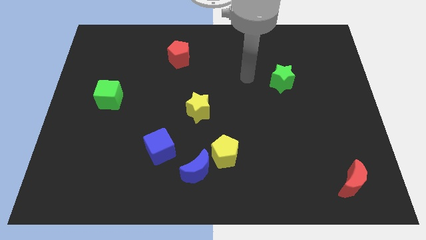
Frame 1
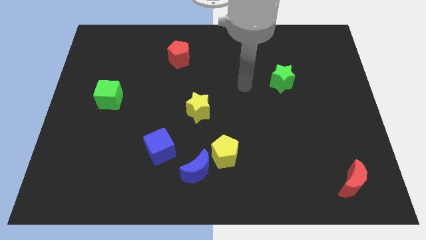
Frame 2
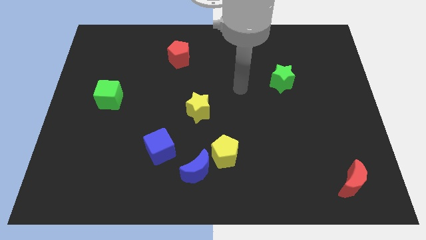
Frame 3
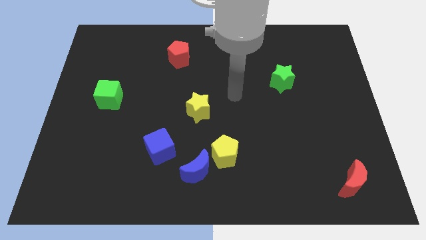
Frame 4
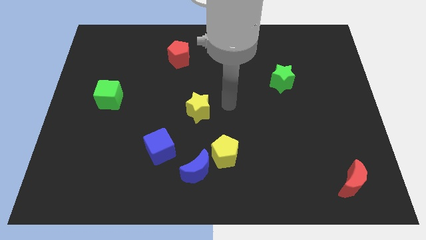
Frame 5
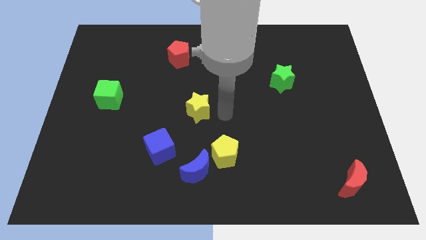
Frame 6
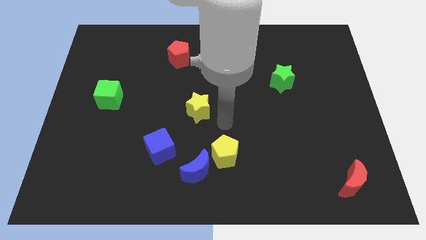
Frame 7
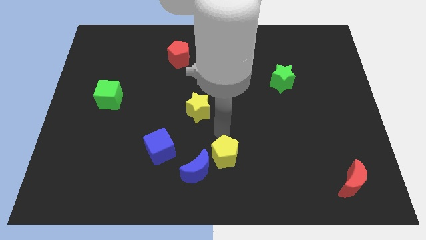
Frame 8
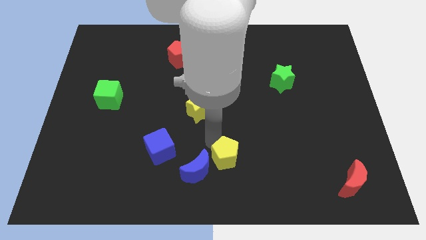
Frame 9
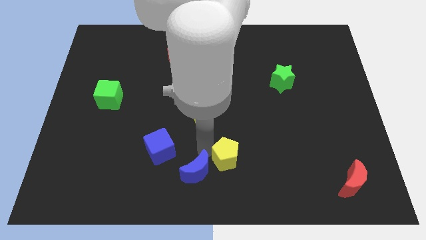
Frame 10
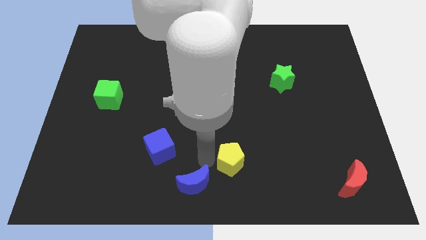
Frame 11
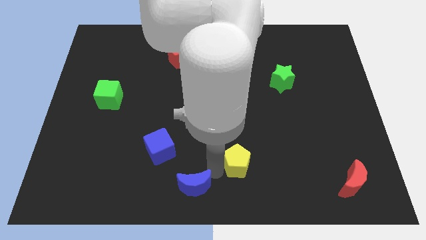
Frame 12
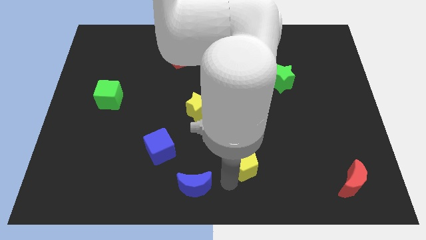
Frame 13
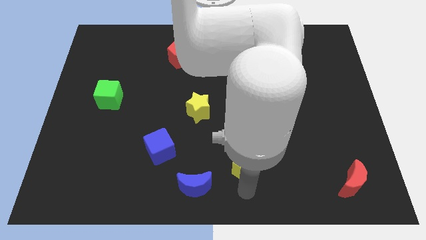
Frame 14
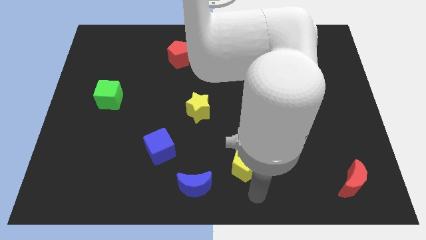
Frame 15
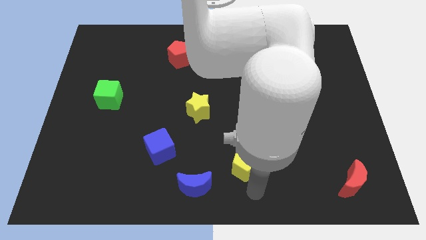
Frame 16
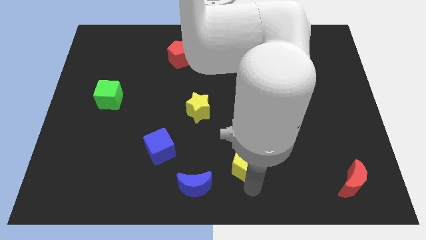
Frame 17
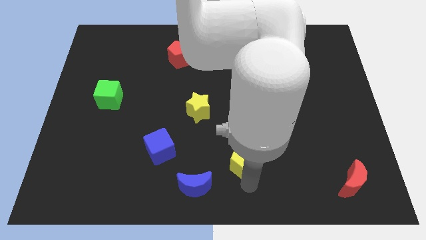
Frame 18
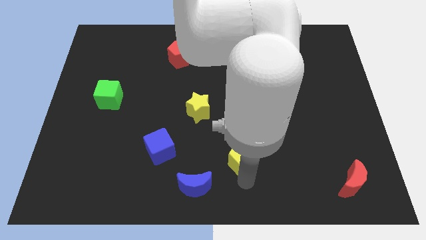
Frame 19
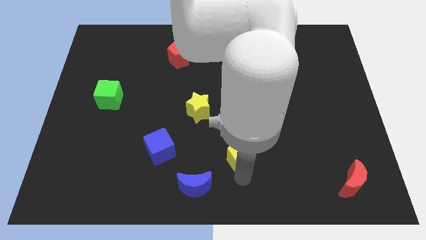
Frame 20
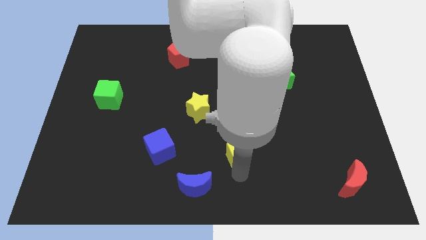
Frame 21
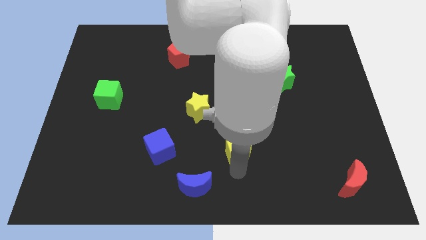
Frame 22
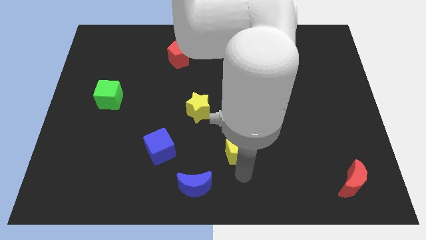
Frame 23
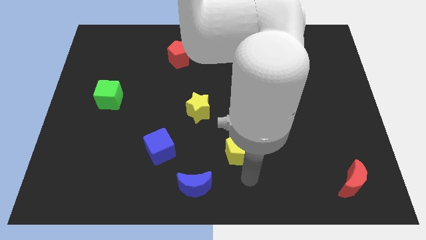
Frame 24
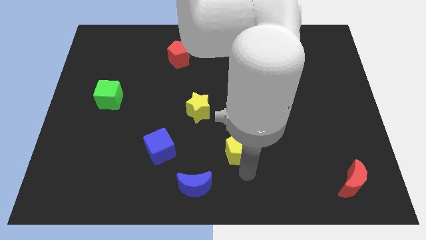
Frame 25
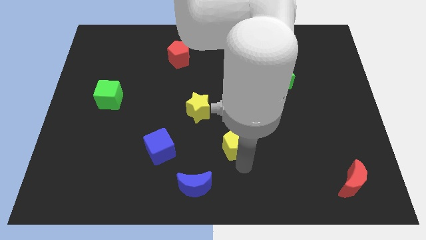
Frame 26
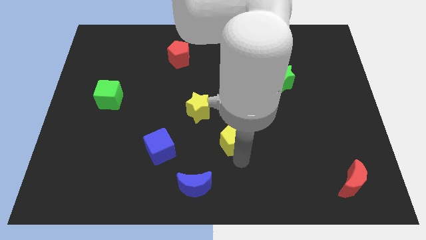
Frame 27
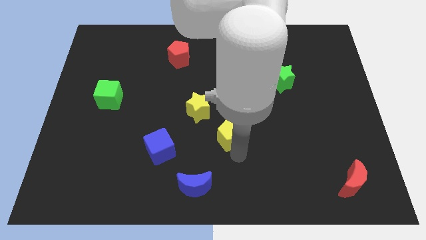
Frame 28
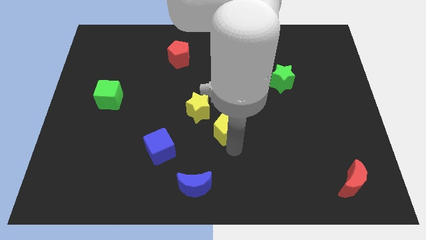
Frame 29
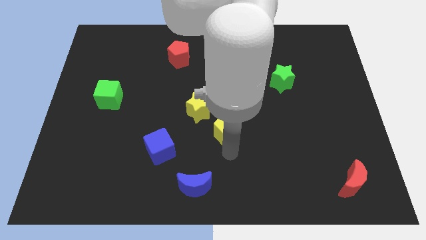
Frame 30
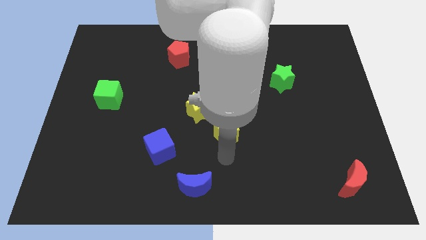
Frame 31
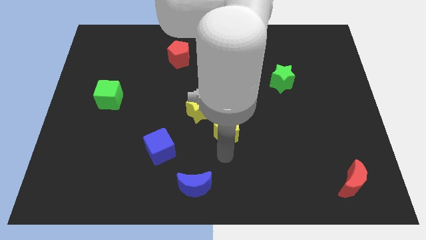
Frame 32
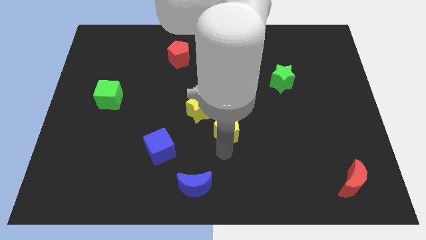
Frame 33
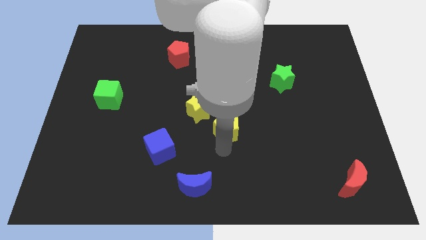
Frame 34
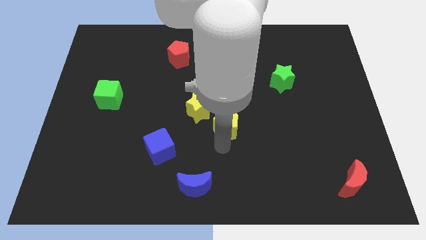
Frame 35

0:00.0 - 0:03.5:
push the yellow pentagon slightly up

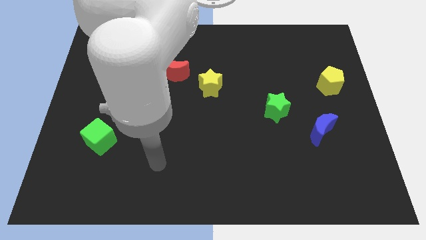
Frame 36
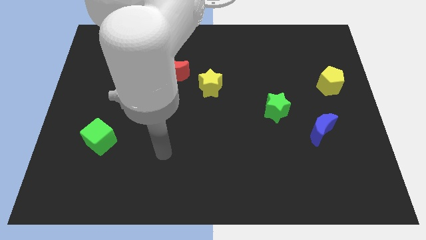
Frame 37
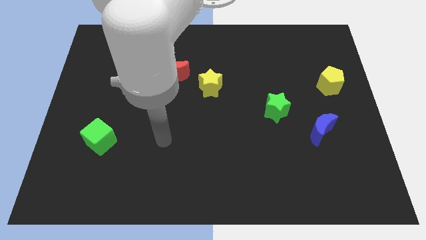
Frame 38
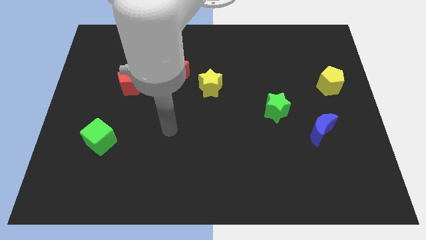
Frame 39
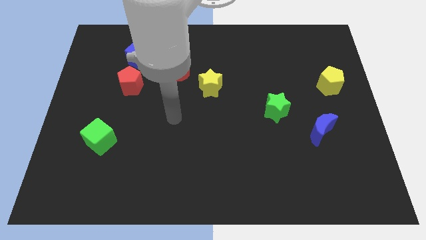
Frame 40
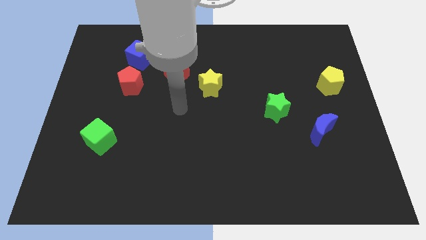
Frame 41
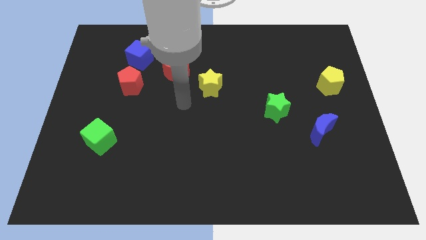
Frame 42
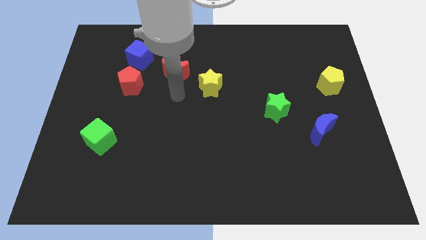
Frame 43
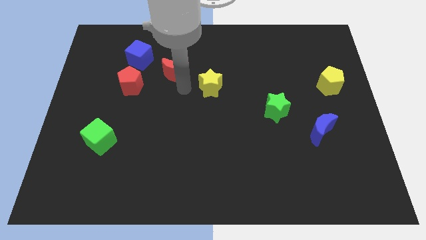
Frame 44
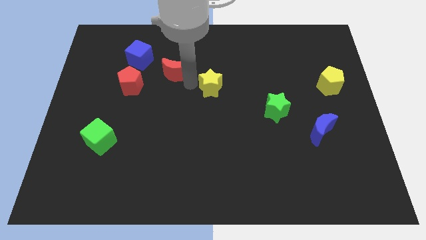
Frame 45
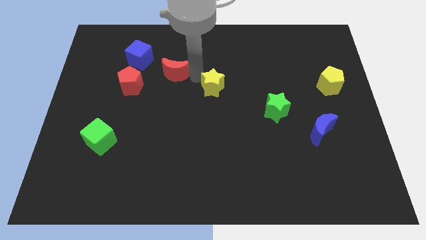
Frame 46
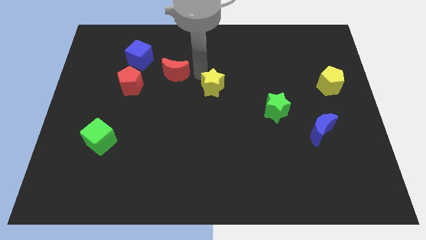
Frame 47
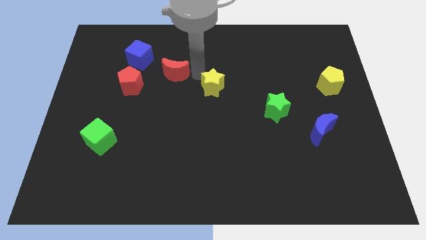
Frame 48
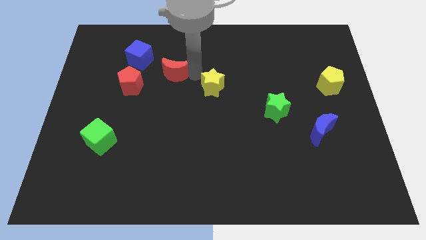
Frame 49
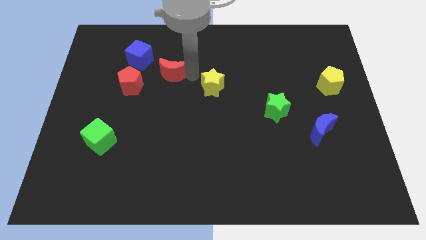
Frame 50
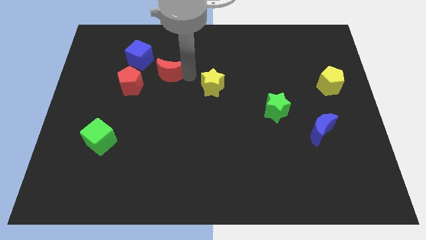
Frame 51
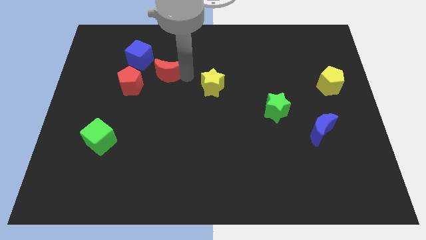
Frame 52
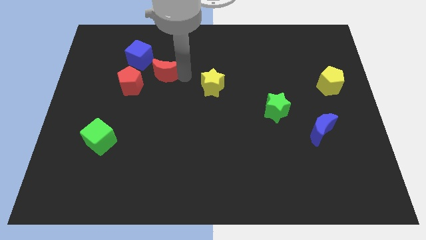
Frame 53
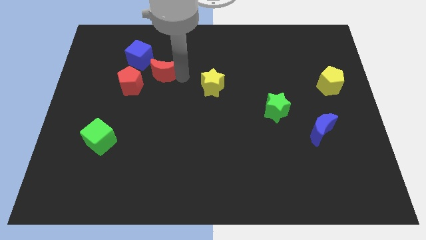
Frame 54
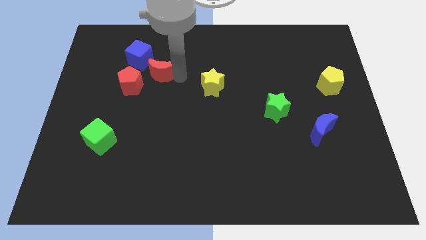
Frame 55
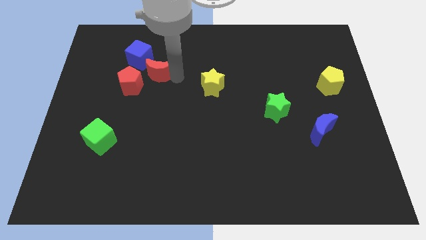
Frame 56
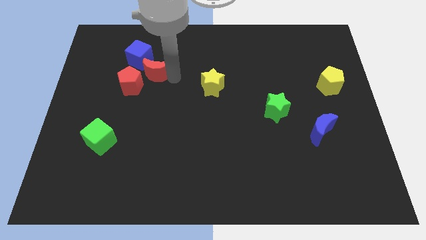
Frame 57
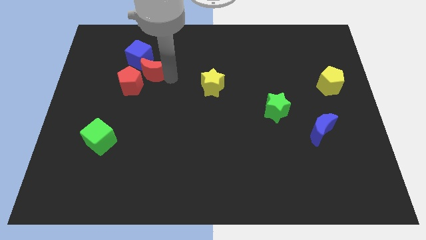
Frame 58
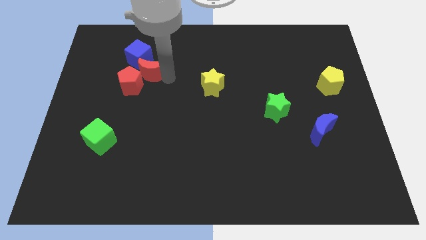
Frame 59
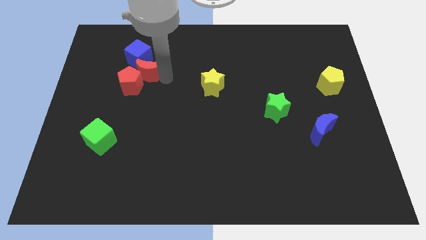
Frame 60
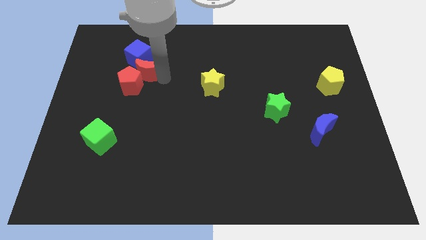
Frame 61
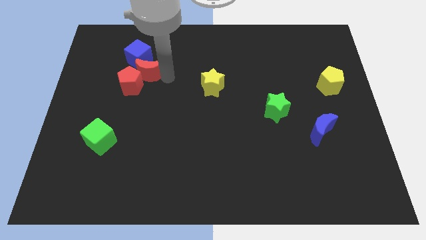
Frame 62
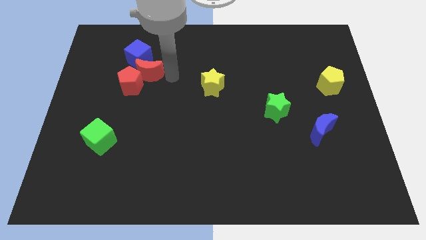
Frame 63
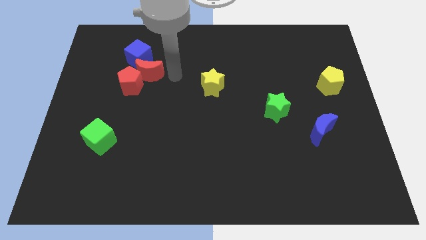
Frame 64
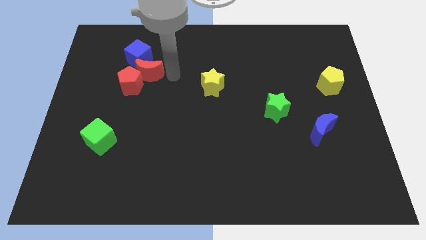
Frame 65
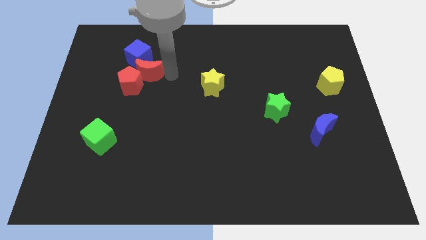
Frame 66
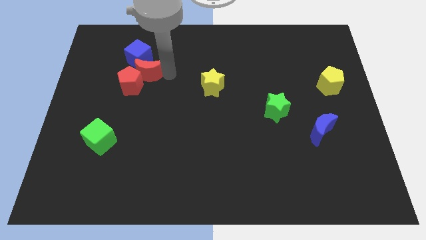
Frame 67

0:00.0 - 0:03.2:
slide the red moon somewhat to the left

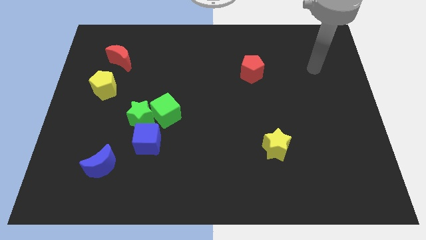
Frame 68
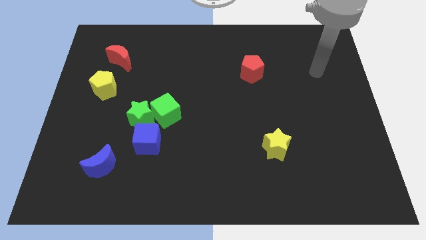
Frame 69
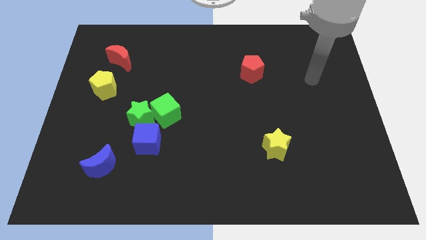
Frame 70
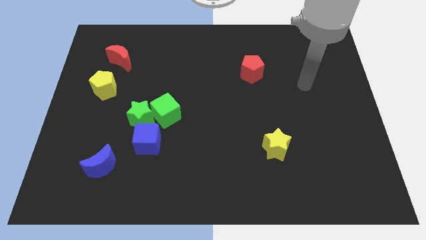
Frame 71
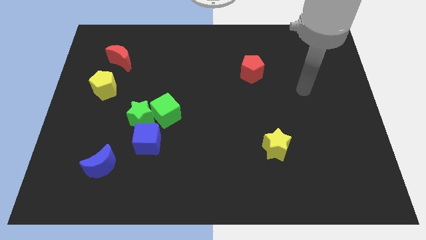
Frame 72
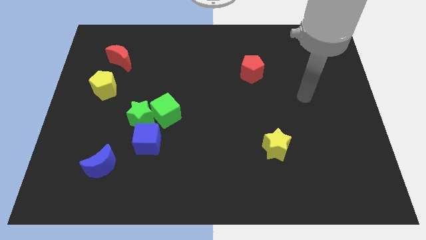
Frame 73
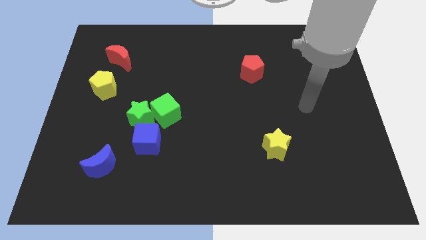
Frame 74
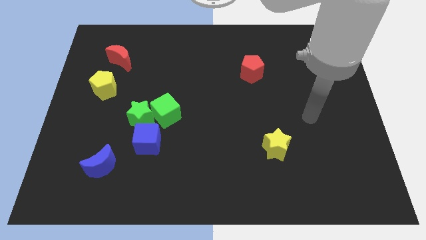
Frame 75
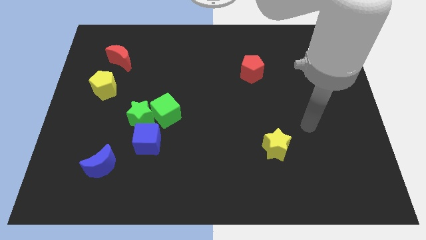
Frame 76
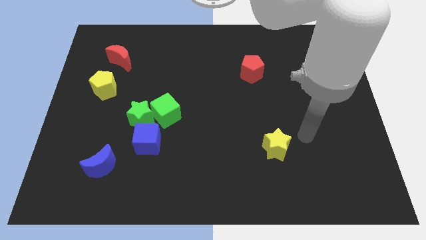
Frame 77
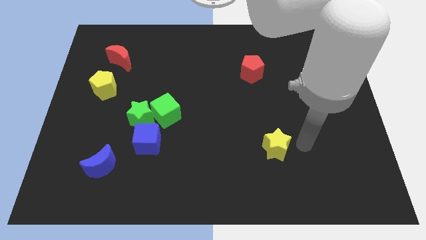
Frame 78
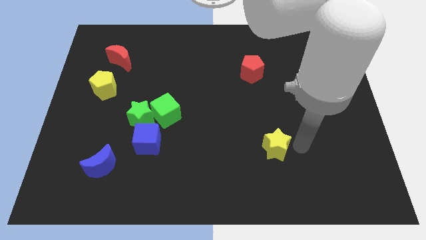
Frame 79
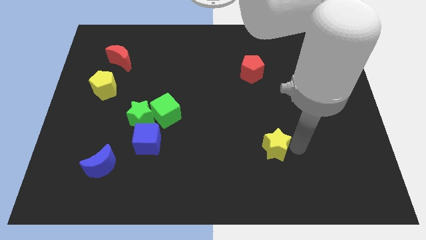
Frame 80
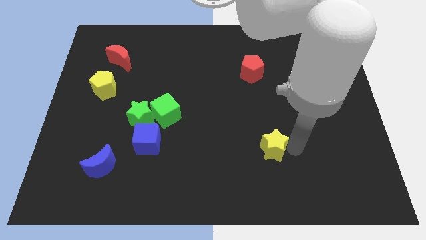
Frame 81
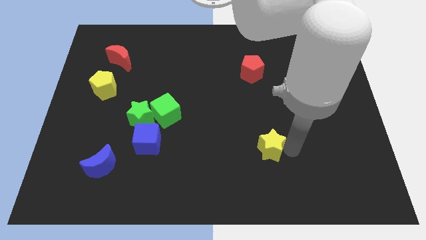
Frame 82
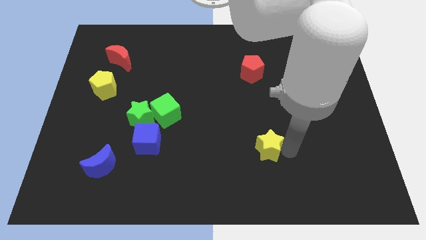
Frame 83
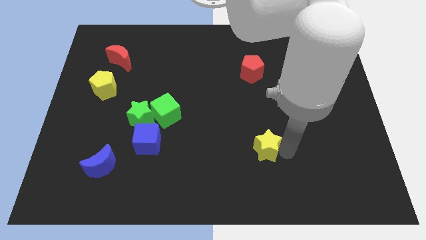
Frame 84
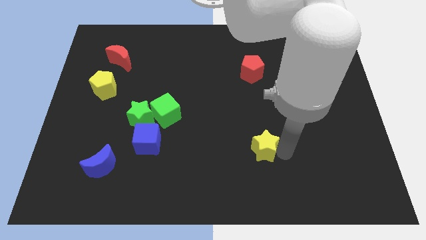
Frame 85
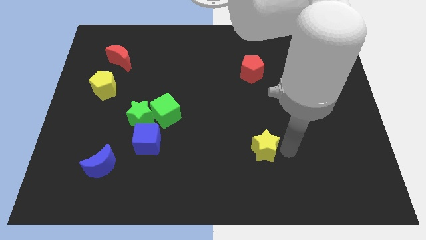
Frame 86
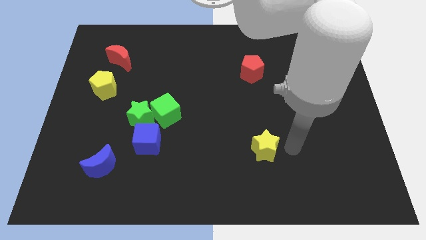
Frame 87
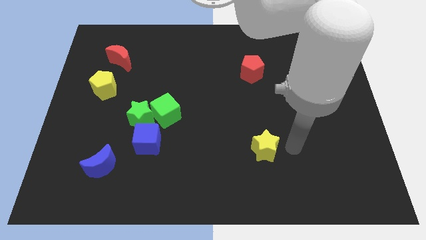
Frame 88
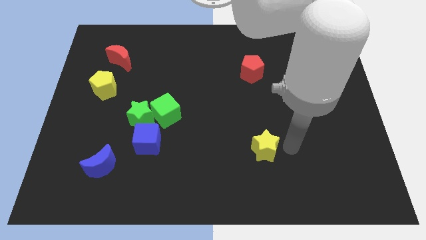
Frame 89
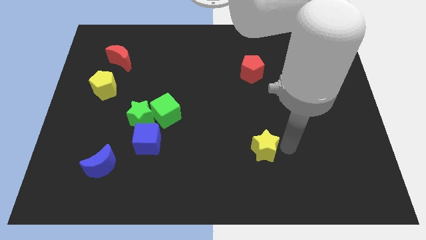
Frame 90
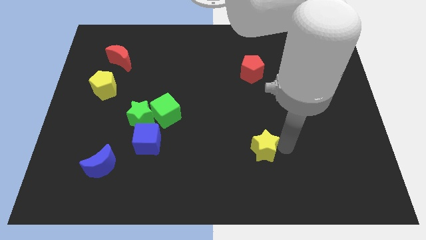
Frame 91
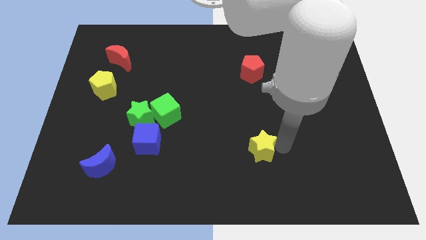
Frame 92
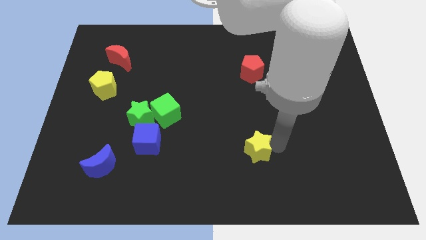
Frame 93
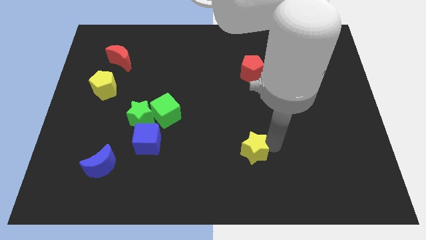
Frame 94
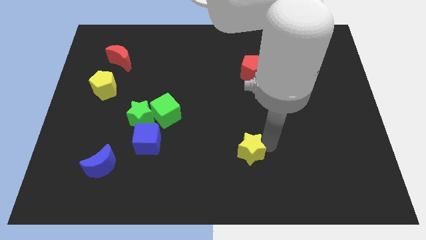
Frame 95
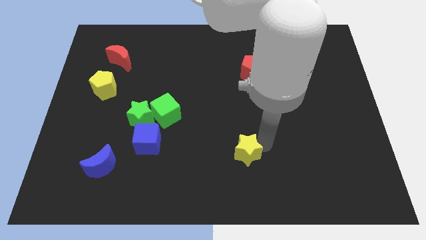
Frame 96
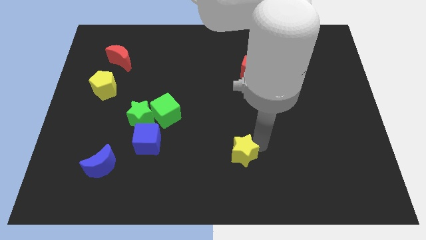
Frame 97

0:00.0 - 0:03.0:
push the yellow star a bit left
